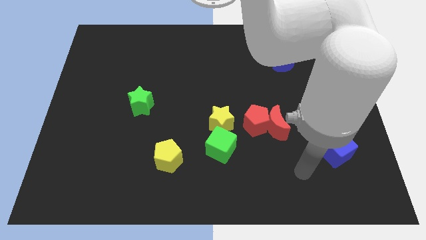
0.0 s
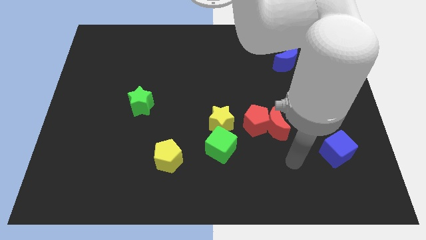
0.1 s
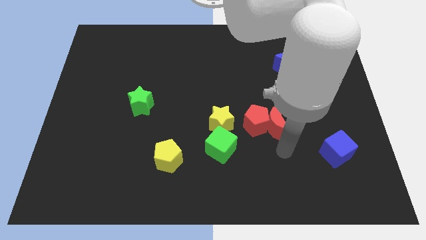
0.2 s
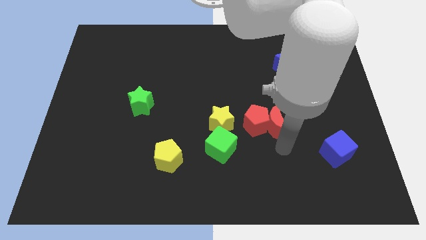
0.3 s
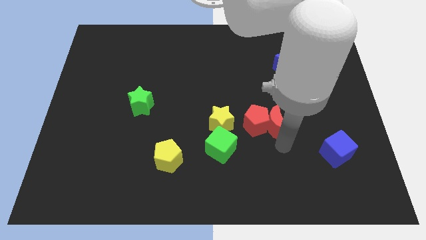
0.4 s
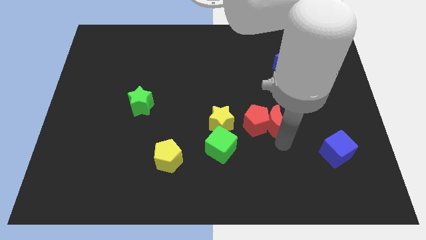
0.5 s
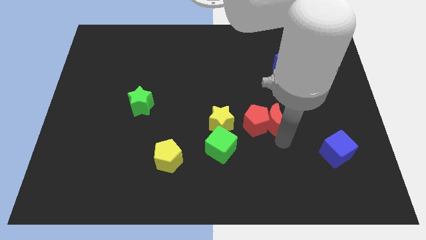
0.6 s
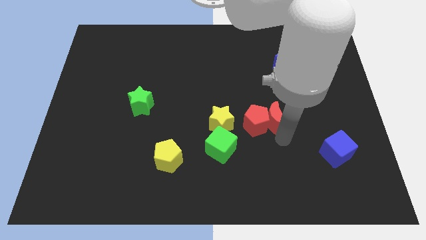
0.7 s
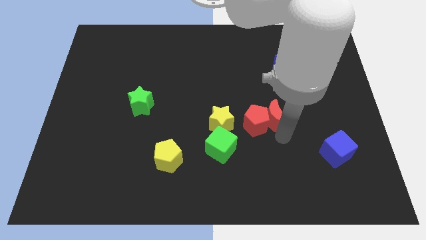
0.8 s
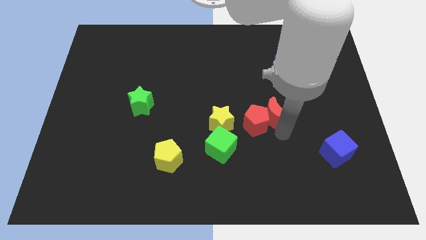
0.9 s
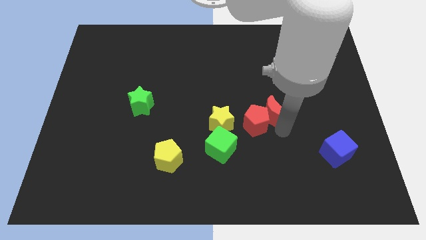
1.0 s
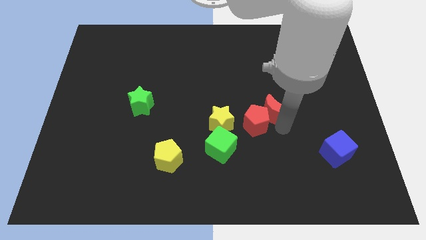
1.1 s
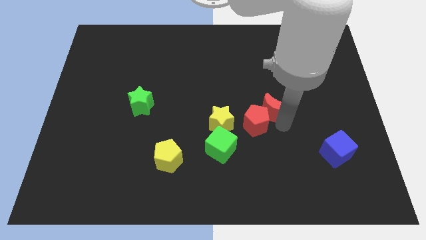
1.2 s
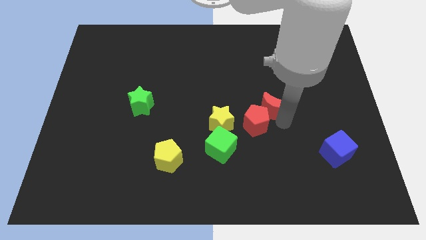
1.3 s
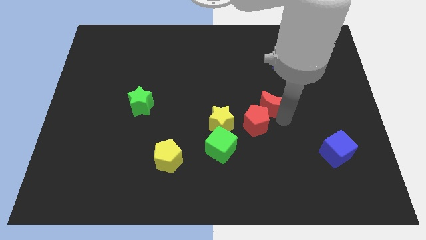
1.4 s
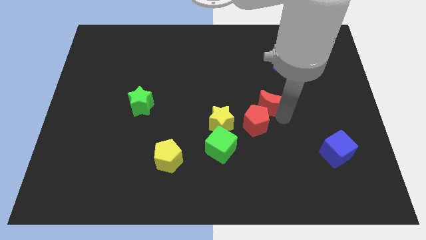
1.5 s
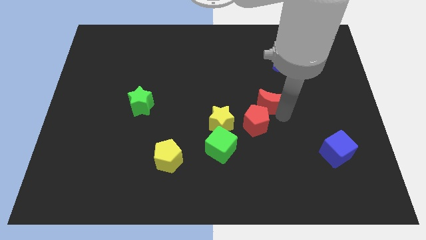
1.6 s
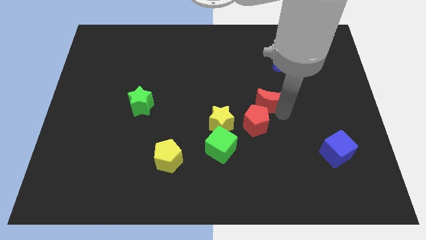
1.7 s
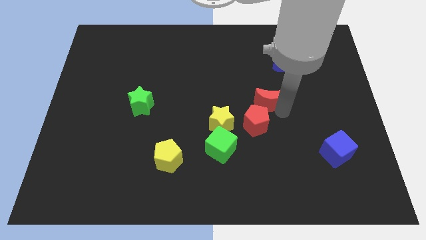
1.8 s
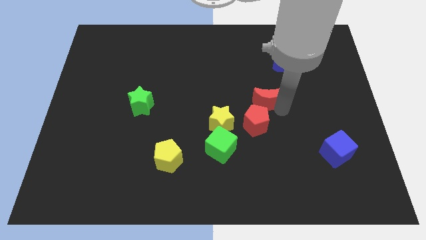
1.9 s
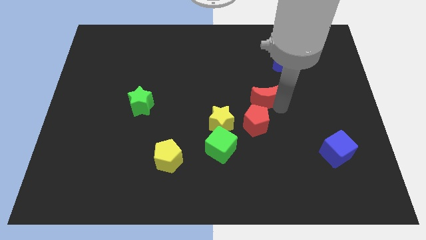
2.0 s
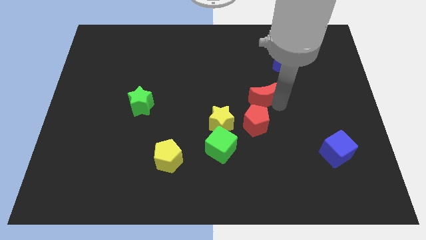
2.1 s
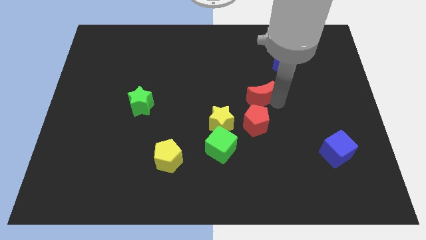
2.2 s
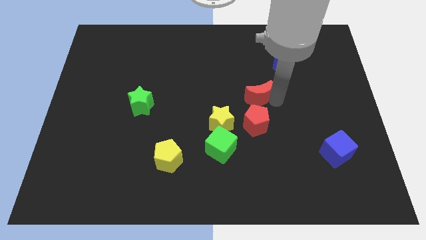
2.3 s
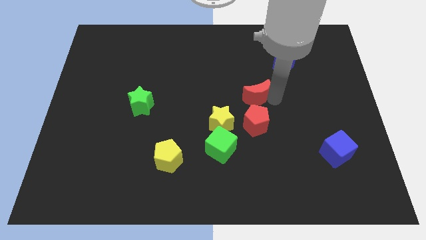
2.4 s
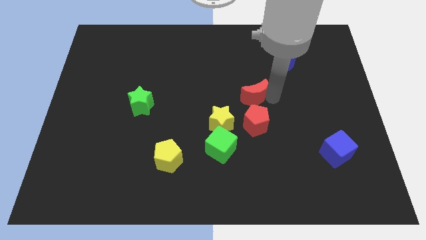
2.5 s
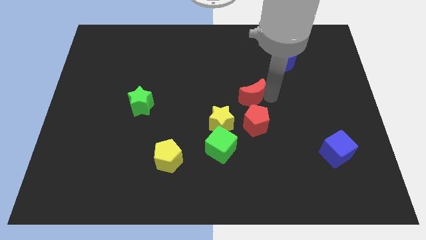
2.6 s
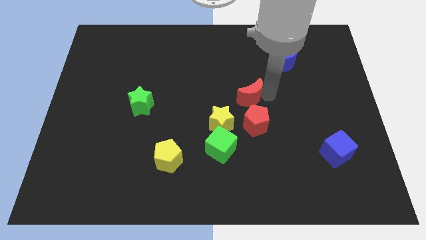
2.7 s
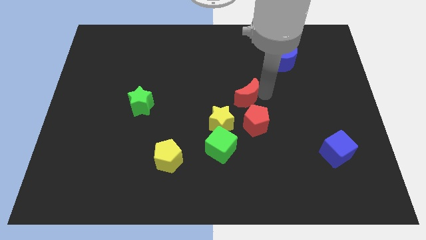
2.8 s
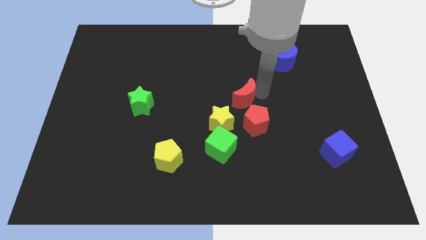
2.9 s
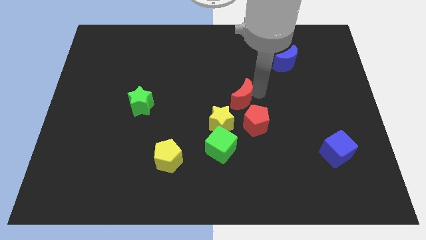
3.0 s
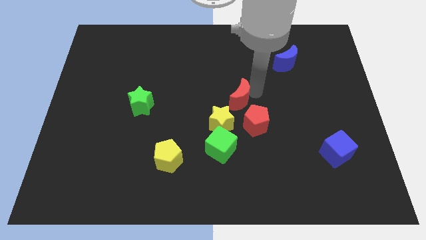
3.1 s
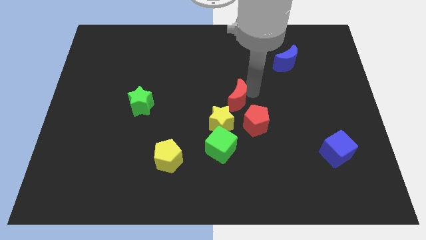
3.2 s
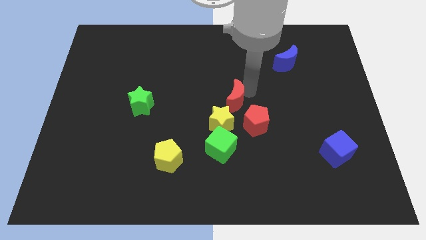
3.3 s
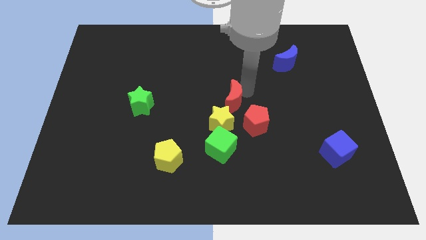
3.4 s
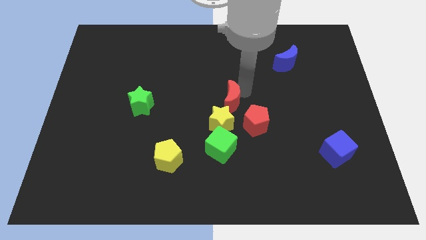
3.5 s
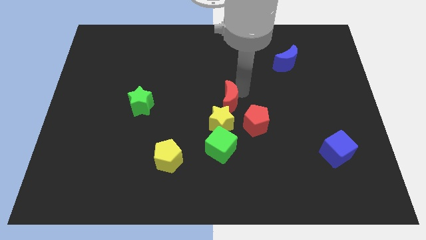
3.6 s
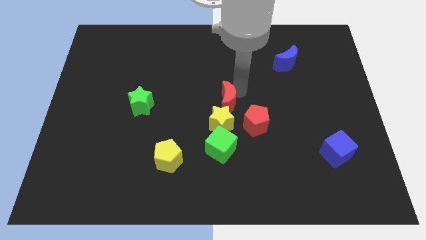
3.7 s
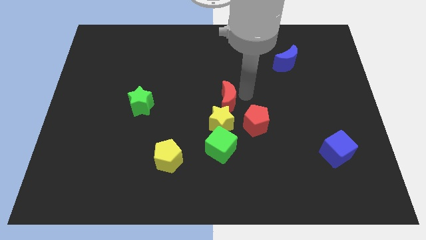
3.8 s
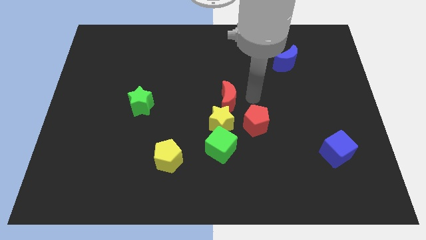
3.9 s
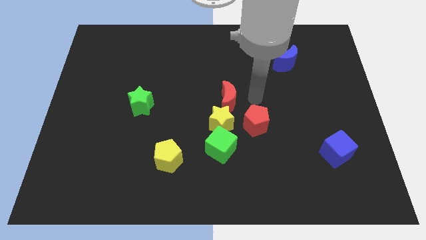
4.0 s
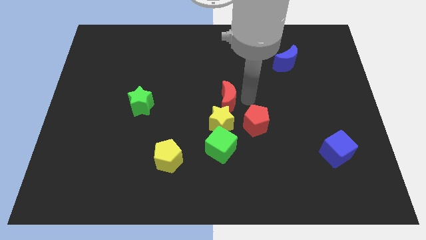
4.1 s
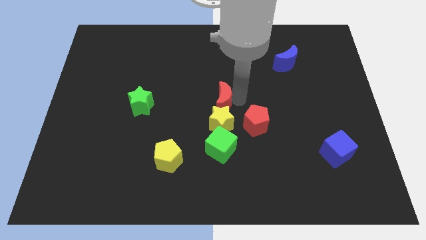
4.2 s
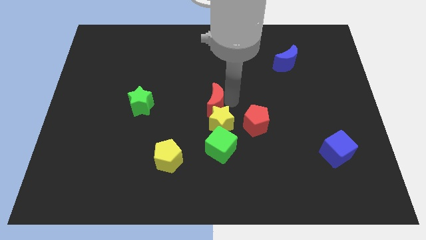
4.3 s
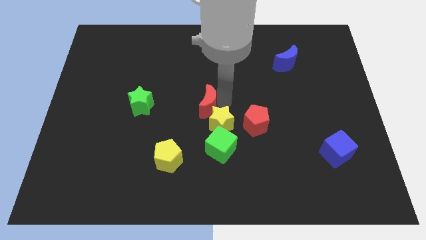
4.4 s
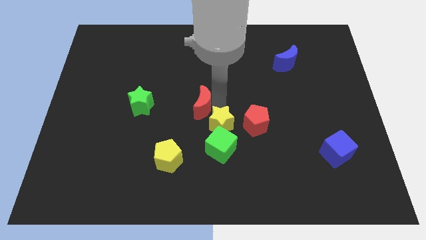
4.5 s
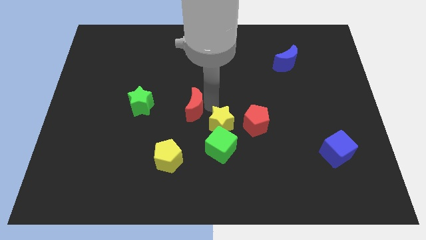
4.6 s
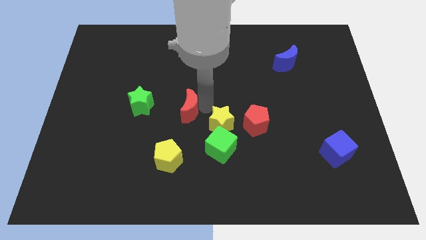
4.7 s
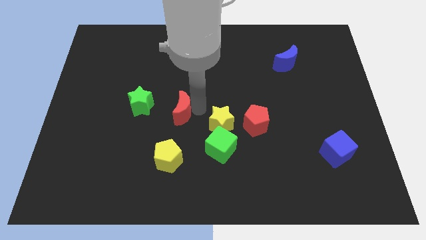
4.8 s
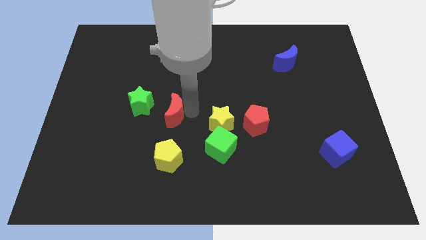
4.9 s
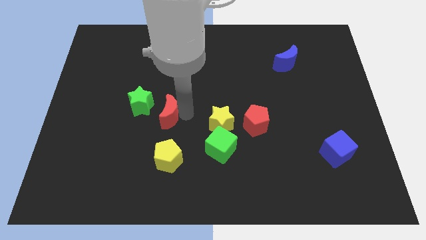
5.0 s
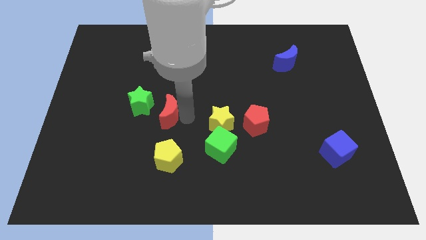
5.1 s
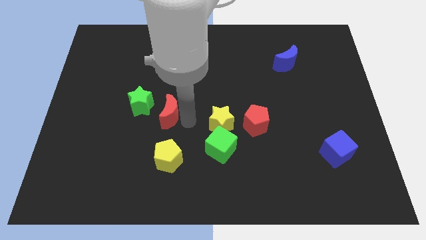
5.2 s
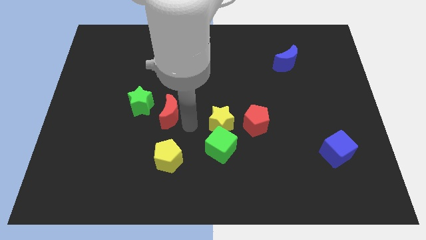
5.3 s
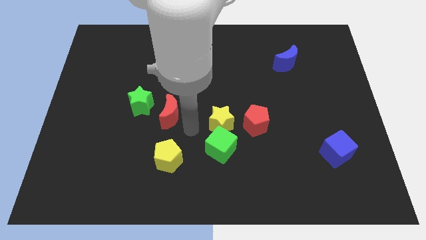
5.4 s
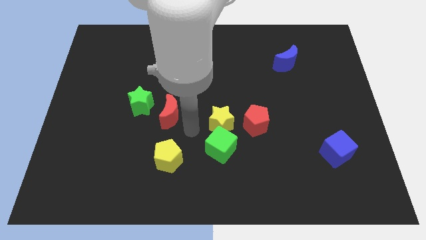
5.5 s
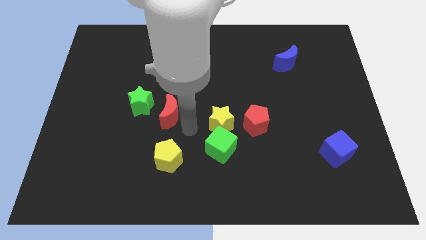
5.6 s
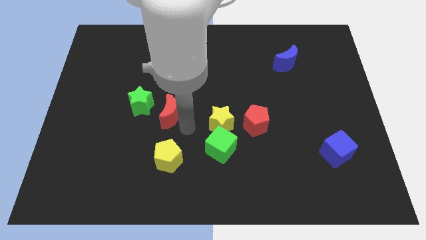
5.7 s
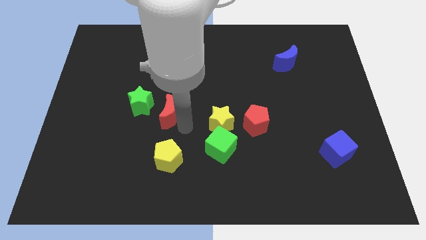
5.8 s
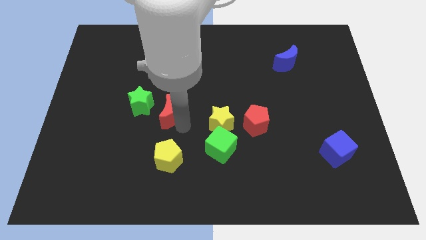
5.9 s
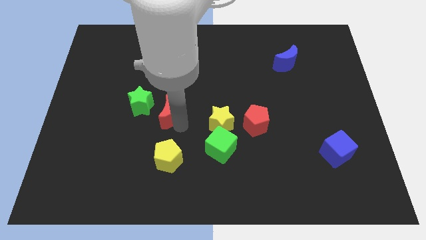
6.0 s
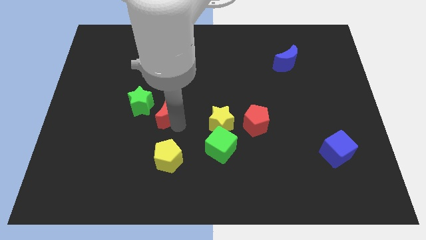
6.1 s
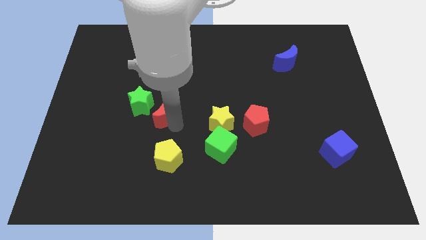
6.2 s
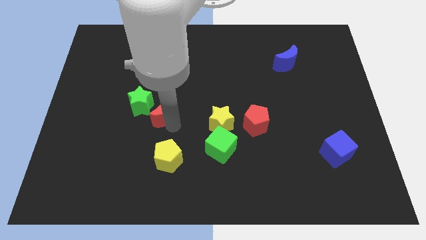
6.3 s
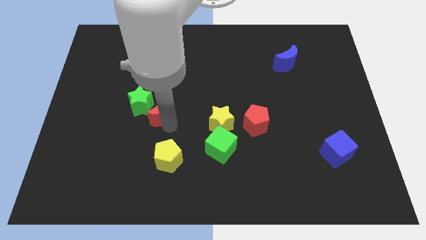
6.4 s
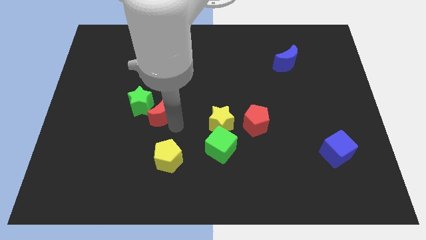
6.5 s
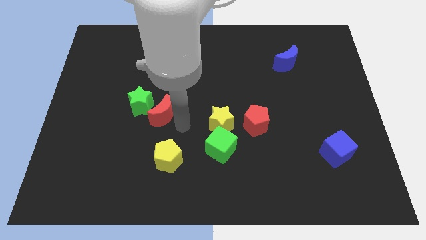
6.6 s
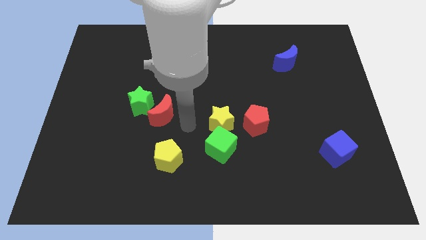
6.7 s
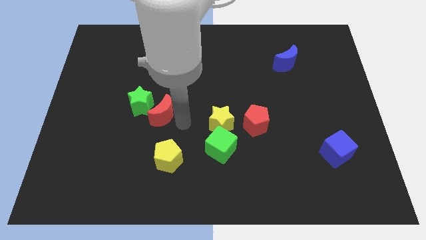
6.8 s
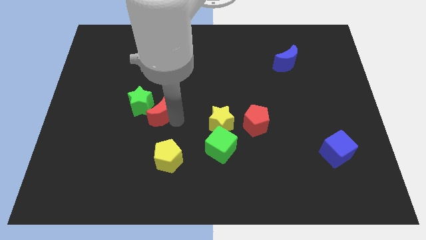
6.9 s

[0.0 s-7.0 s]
put the red moon next to the green star

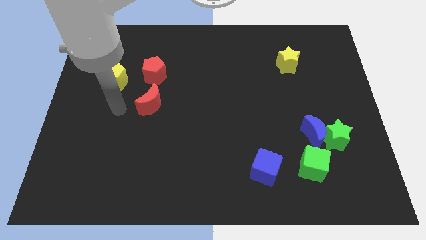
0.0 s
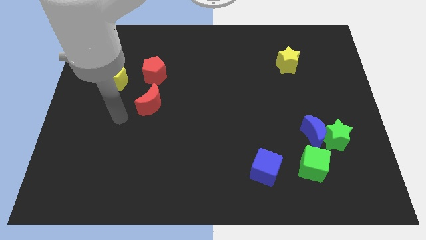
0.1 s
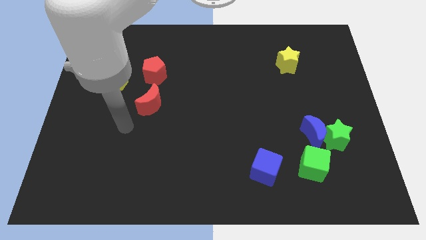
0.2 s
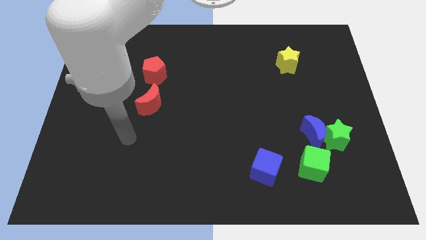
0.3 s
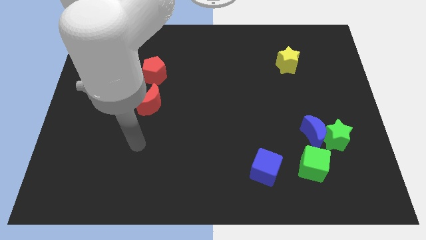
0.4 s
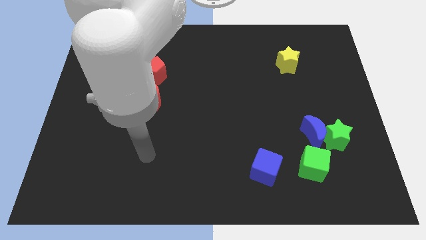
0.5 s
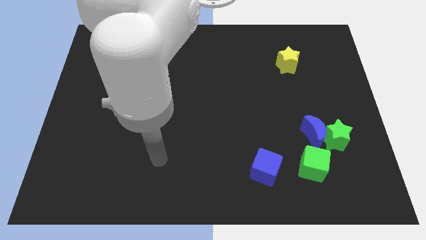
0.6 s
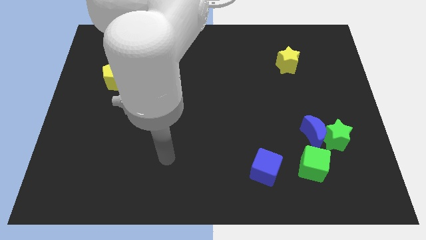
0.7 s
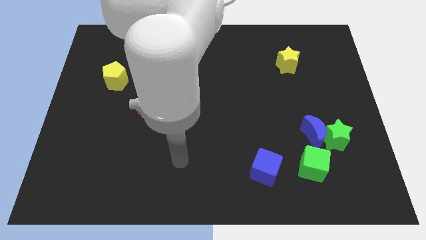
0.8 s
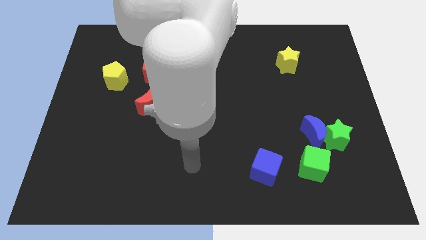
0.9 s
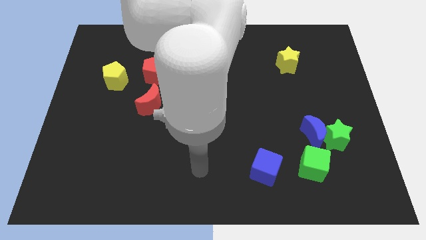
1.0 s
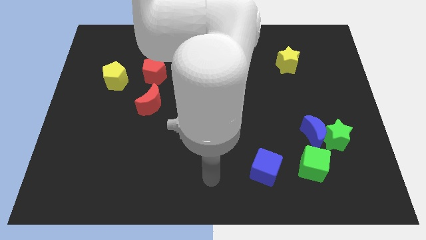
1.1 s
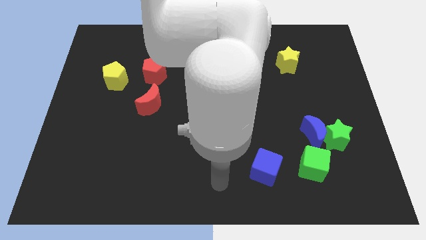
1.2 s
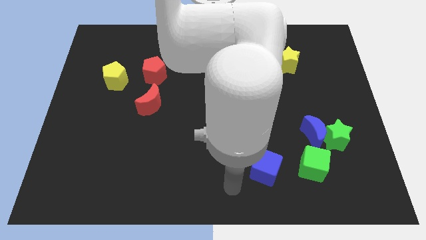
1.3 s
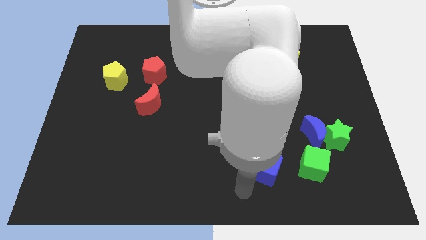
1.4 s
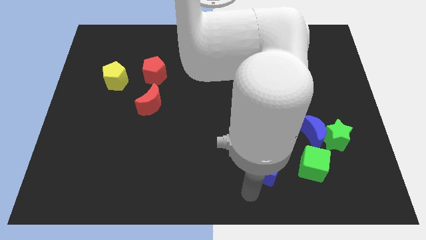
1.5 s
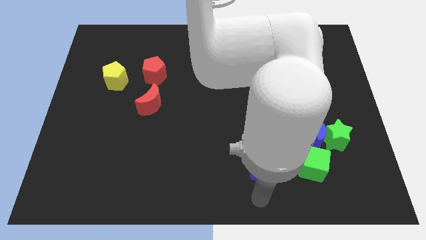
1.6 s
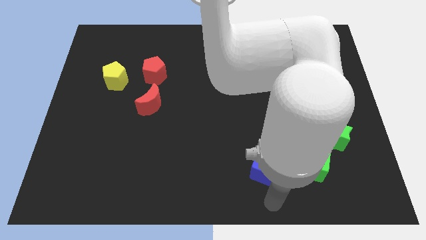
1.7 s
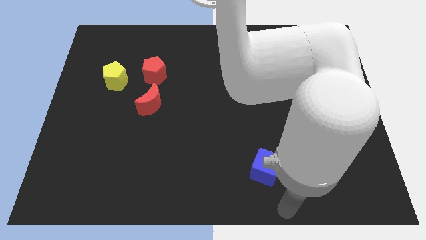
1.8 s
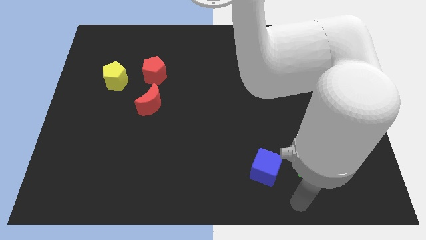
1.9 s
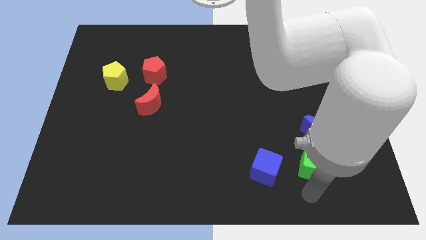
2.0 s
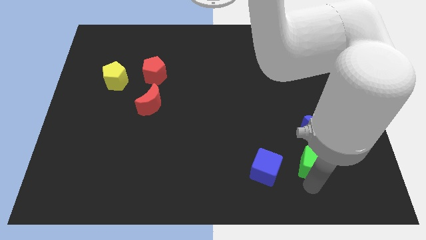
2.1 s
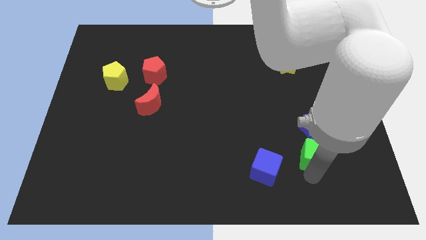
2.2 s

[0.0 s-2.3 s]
push the green cube towards the blue moon
